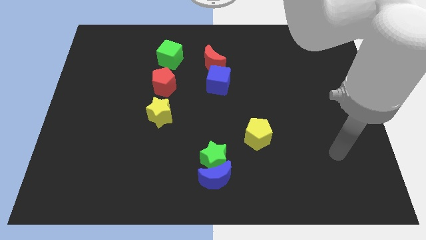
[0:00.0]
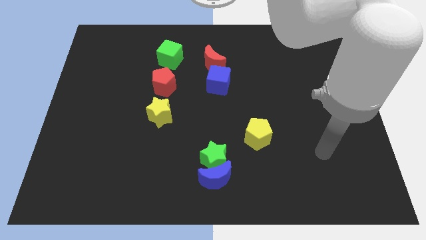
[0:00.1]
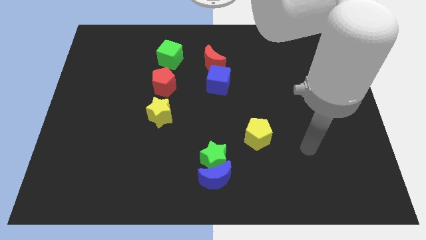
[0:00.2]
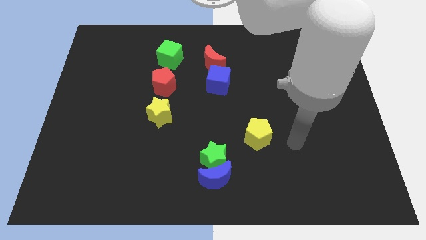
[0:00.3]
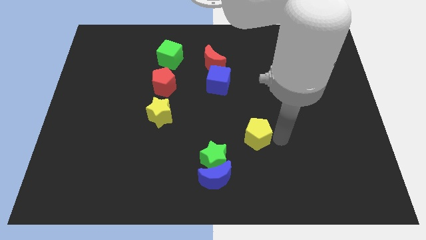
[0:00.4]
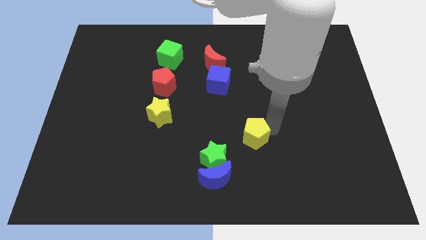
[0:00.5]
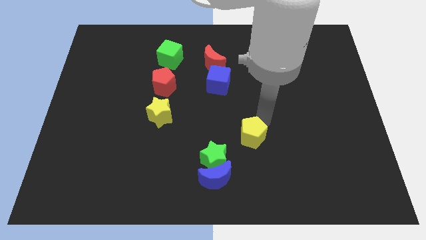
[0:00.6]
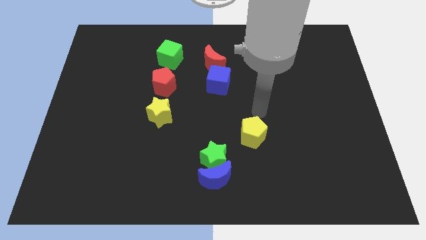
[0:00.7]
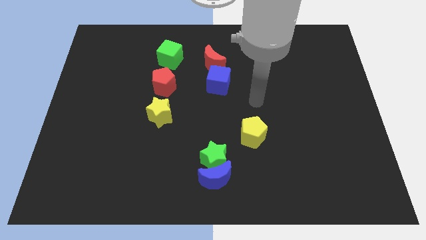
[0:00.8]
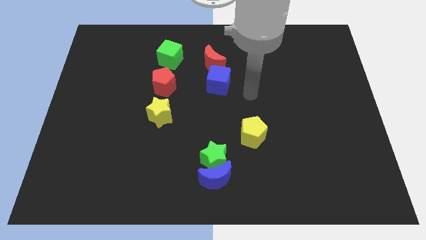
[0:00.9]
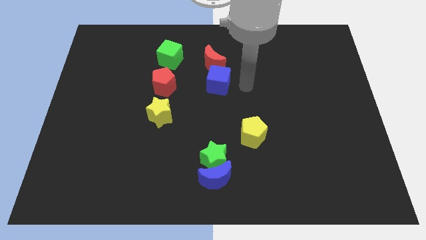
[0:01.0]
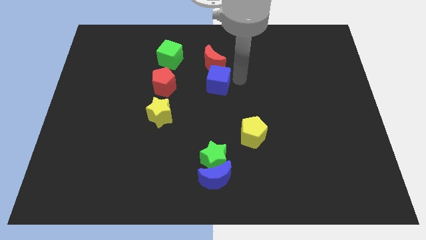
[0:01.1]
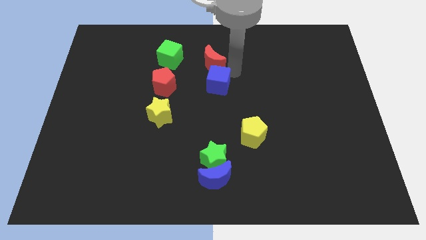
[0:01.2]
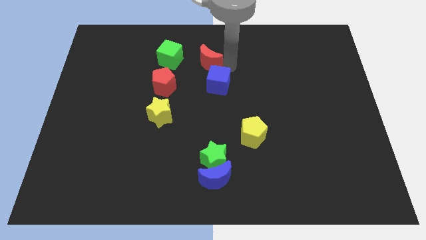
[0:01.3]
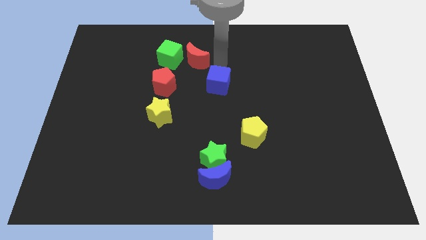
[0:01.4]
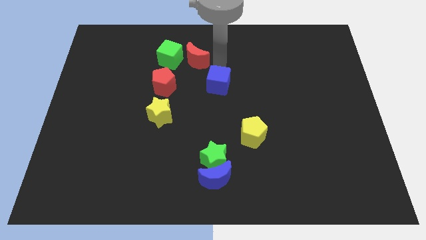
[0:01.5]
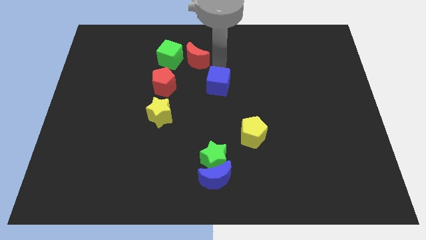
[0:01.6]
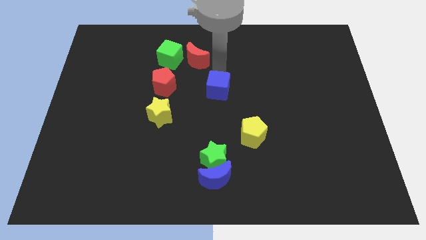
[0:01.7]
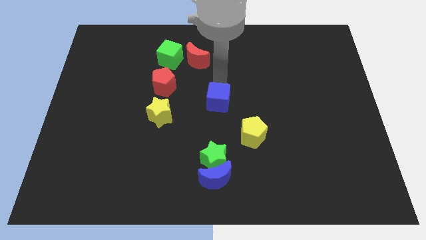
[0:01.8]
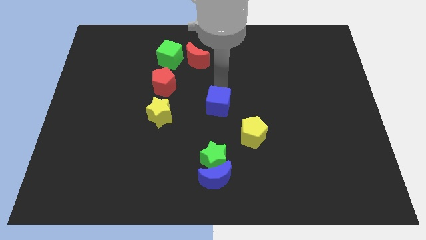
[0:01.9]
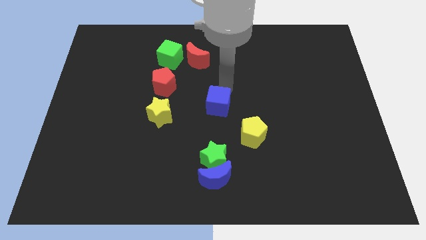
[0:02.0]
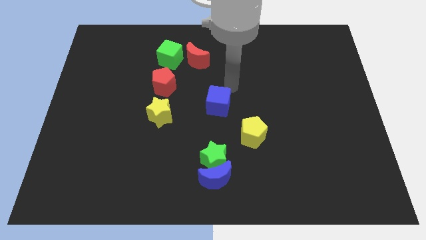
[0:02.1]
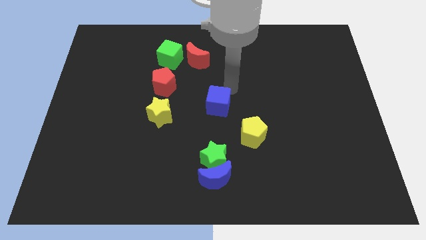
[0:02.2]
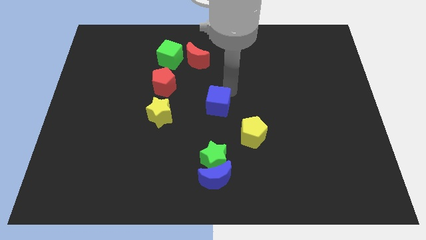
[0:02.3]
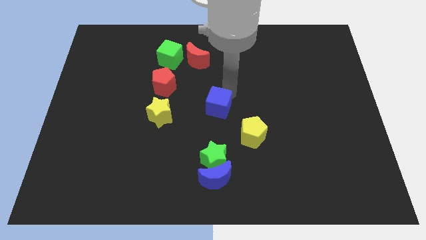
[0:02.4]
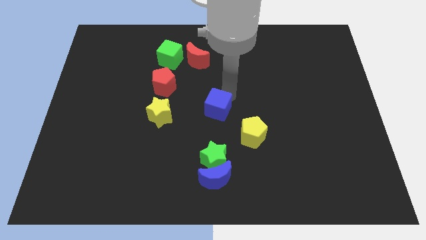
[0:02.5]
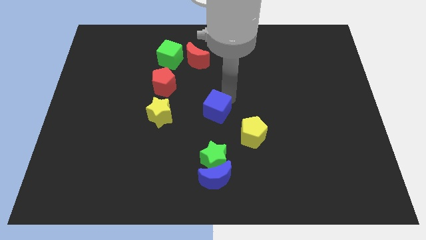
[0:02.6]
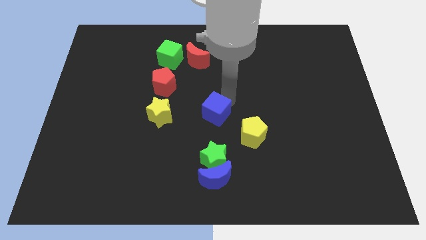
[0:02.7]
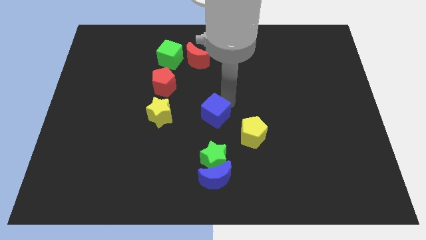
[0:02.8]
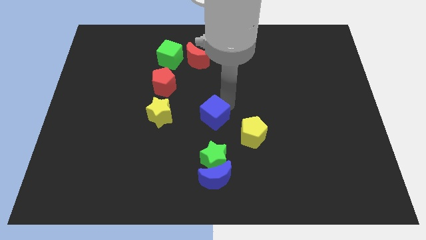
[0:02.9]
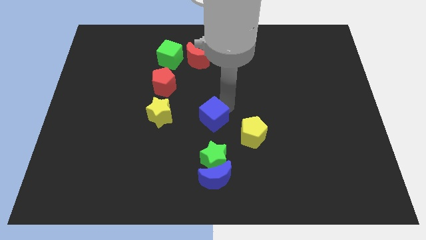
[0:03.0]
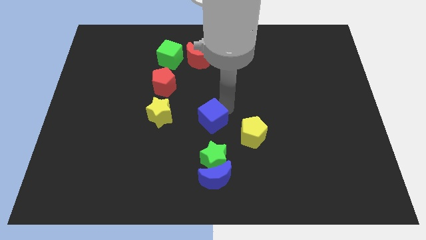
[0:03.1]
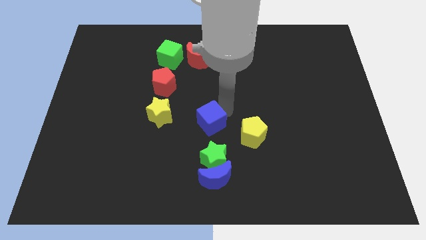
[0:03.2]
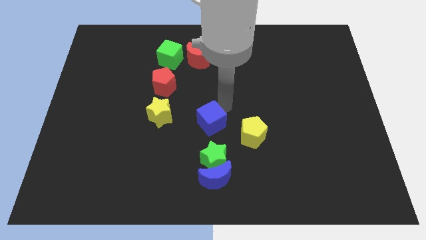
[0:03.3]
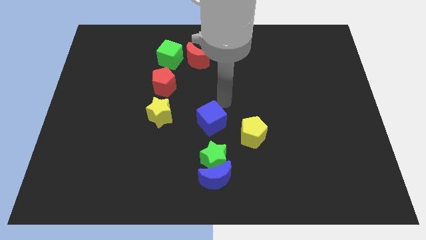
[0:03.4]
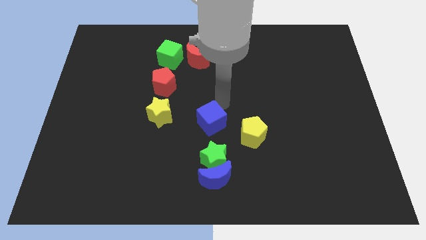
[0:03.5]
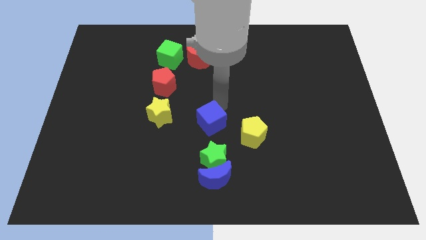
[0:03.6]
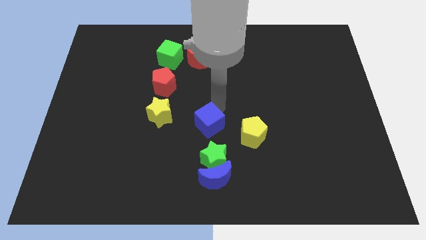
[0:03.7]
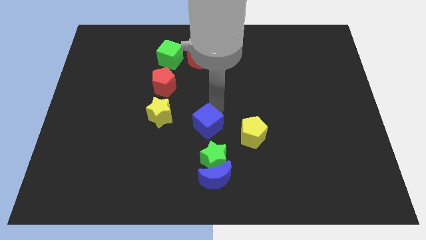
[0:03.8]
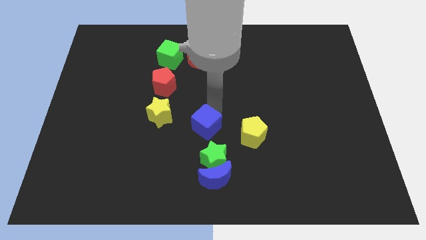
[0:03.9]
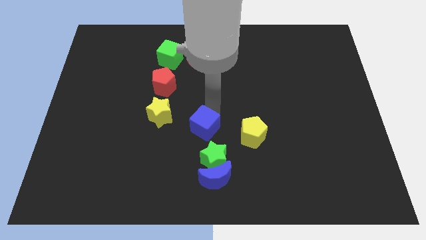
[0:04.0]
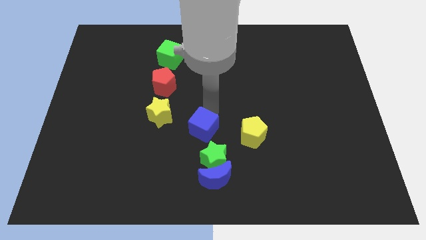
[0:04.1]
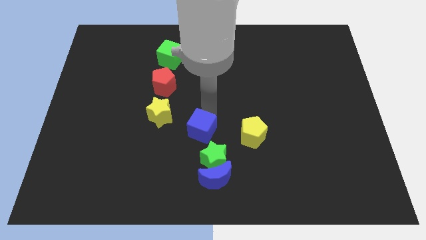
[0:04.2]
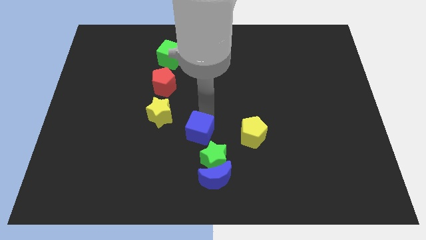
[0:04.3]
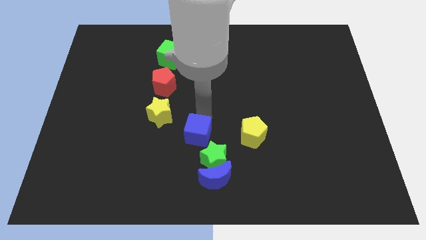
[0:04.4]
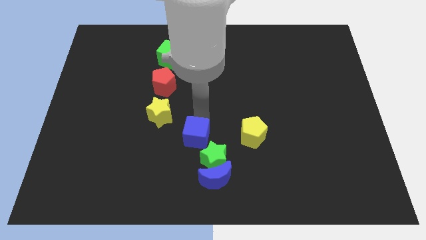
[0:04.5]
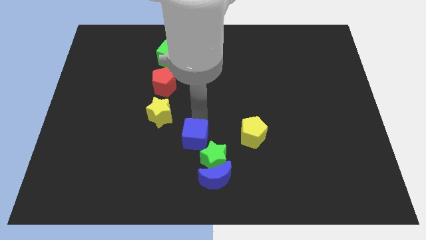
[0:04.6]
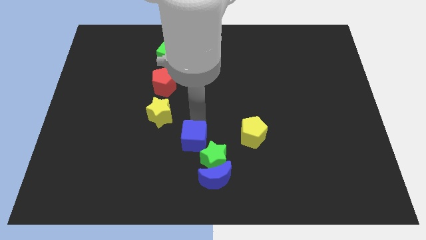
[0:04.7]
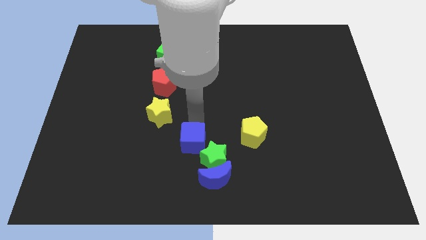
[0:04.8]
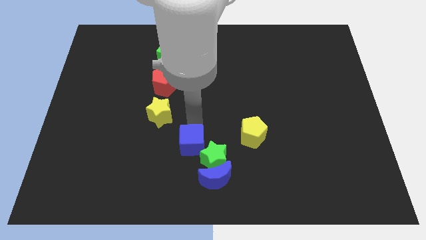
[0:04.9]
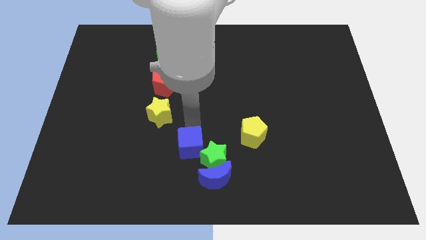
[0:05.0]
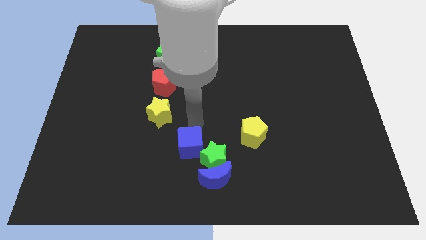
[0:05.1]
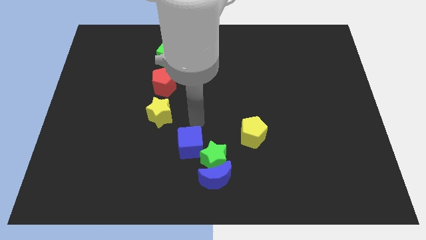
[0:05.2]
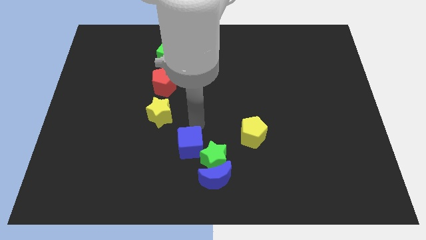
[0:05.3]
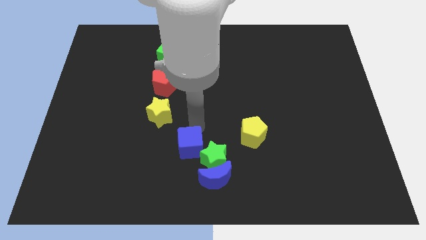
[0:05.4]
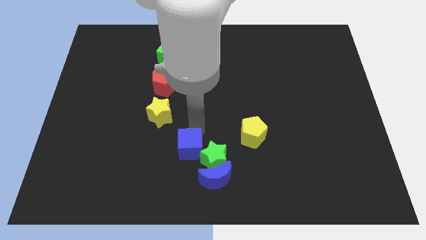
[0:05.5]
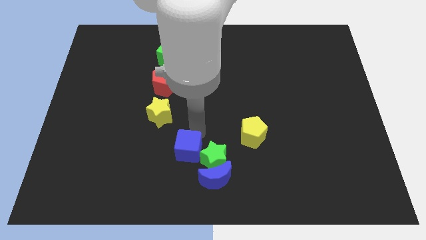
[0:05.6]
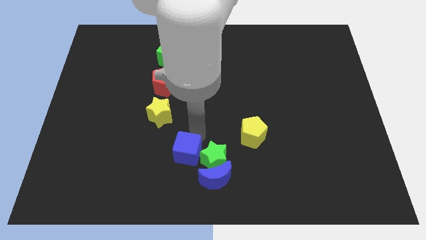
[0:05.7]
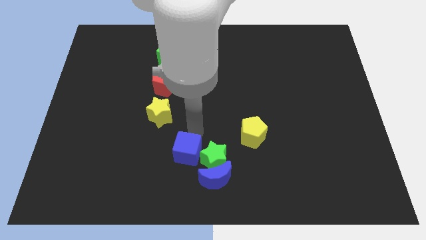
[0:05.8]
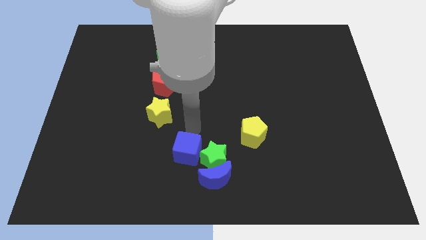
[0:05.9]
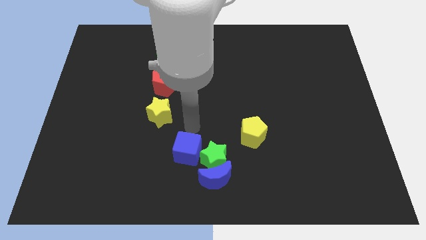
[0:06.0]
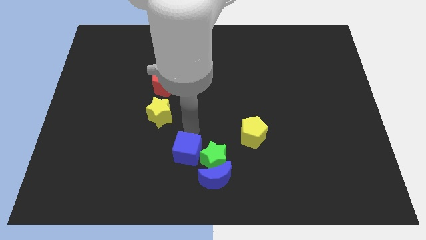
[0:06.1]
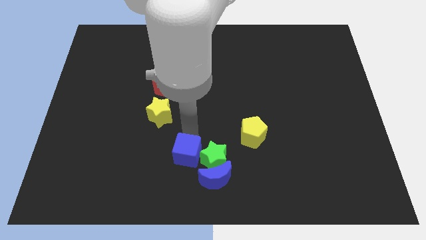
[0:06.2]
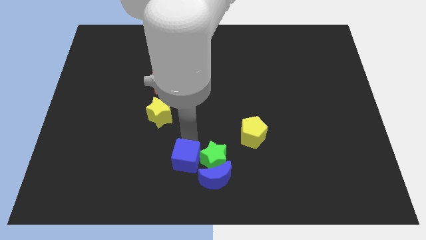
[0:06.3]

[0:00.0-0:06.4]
slide the blue cube to the bottom side

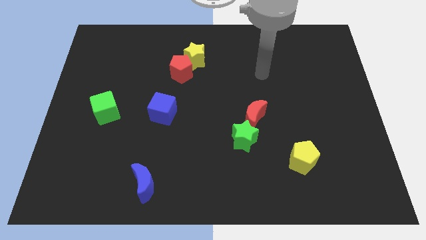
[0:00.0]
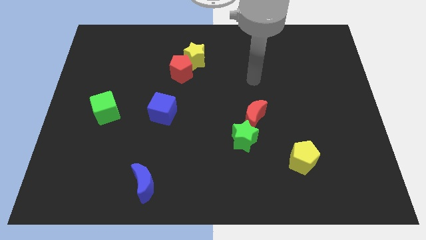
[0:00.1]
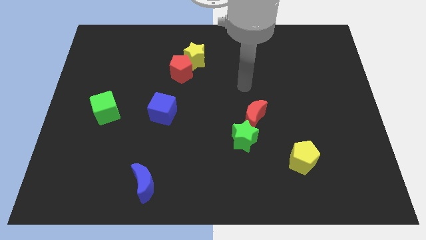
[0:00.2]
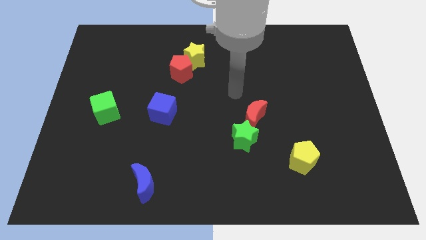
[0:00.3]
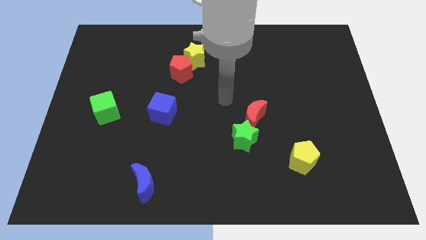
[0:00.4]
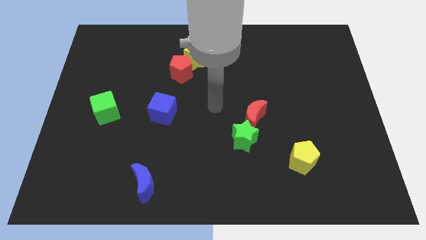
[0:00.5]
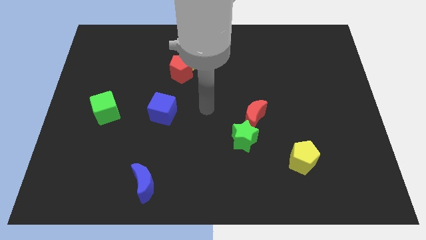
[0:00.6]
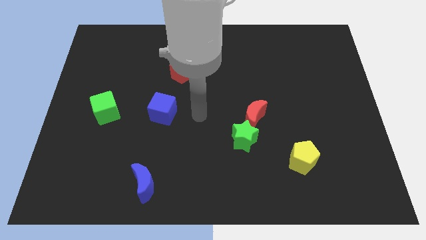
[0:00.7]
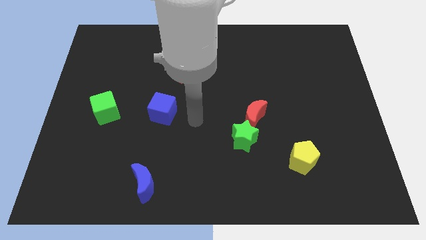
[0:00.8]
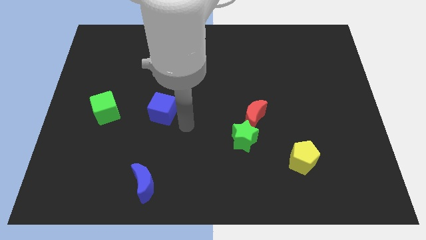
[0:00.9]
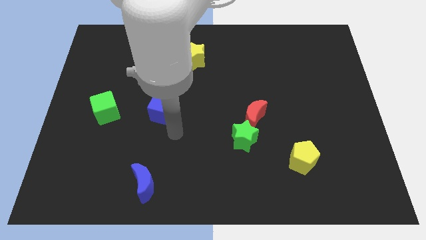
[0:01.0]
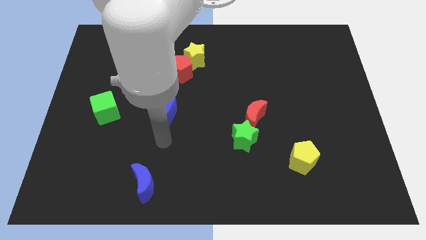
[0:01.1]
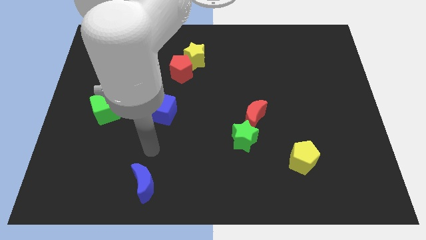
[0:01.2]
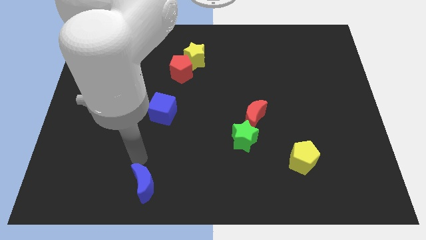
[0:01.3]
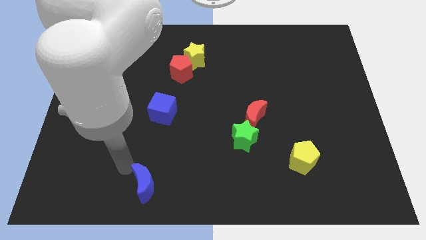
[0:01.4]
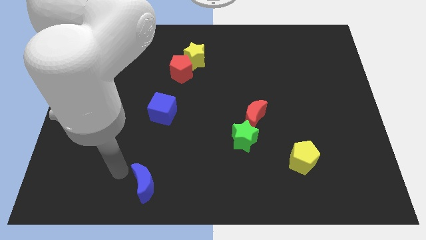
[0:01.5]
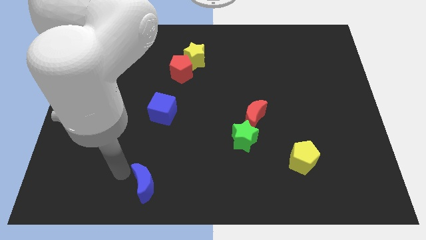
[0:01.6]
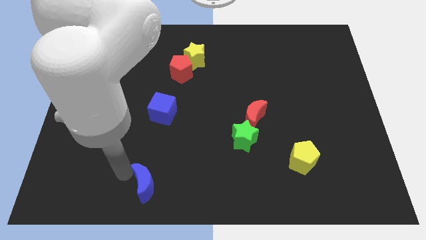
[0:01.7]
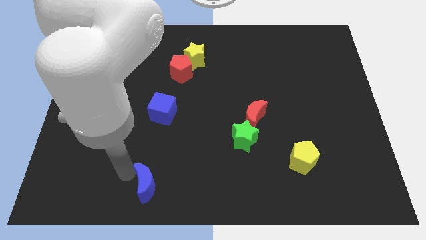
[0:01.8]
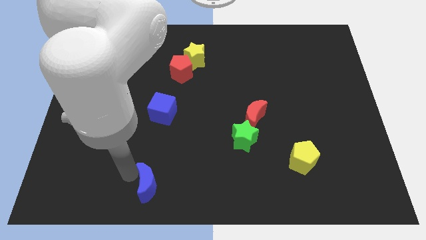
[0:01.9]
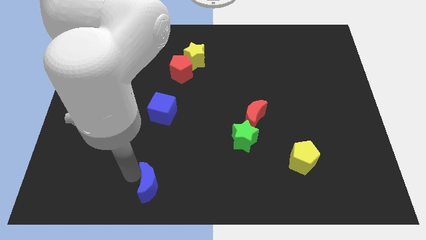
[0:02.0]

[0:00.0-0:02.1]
slide the blue moon to the bottom
